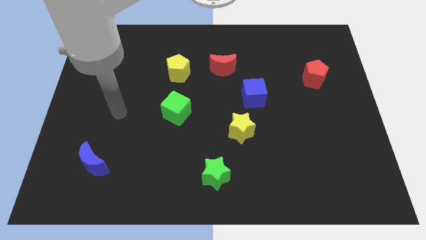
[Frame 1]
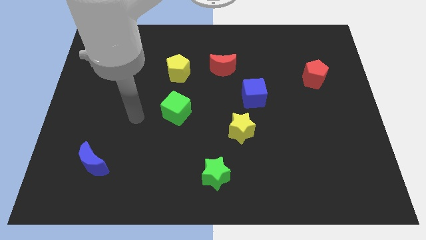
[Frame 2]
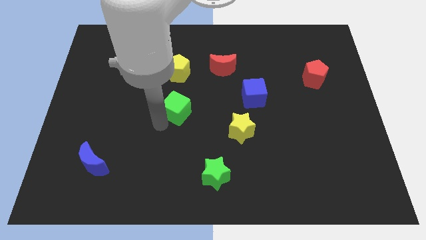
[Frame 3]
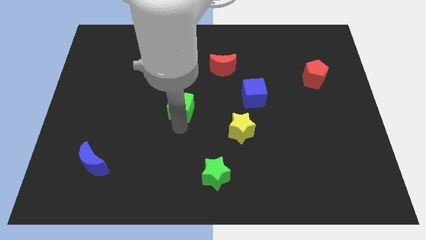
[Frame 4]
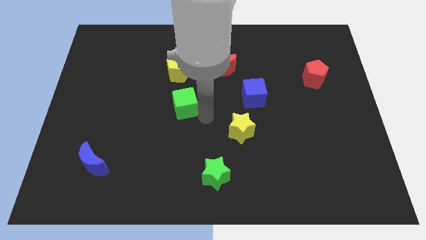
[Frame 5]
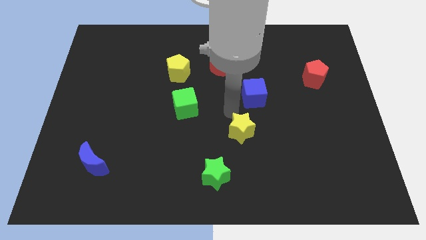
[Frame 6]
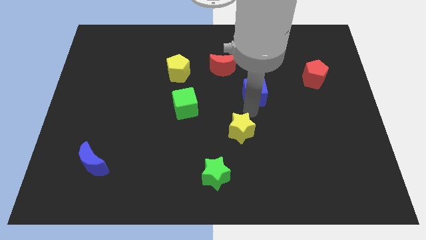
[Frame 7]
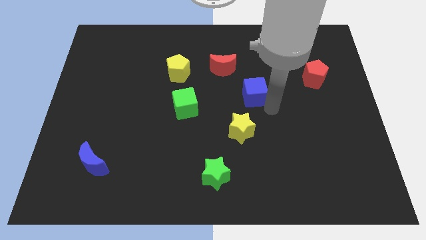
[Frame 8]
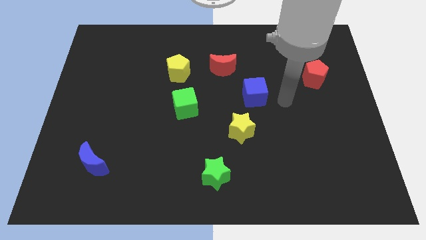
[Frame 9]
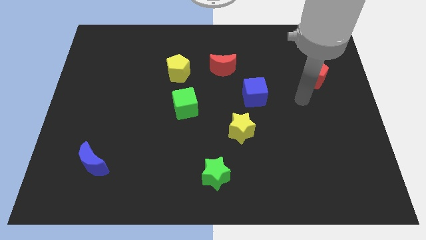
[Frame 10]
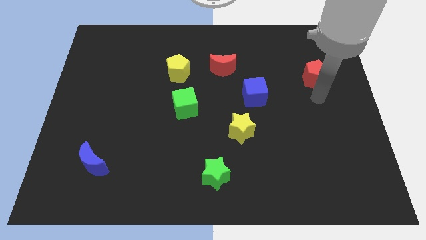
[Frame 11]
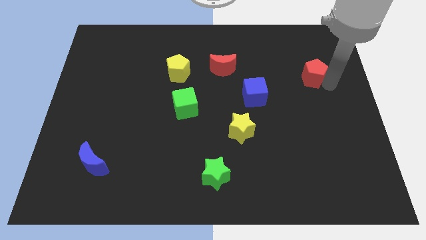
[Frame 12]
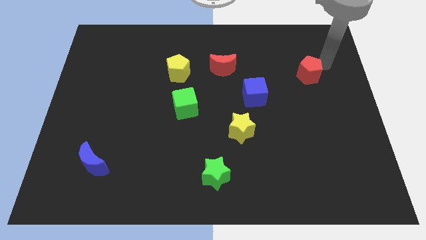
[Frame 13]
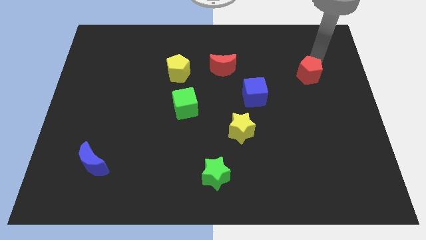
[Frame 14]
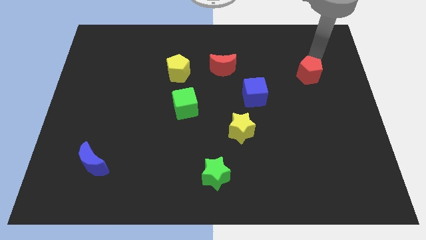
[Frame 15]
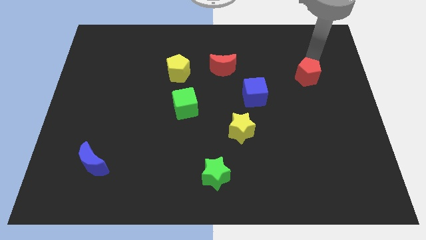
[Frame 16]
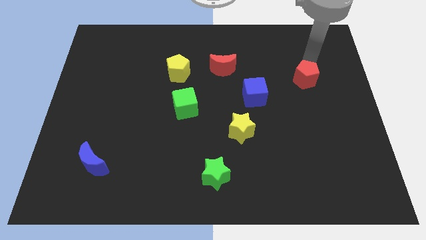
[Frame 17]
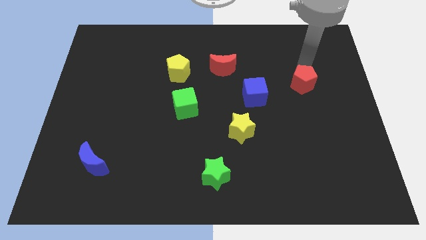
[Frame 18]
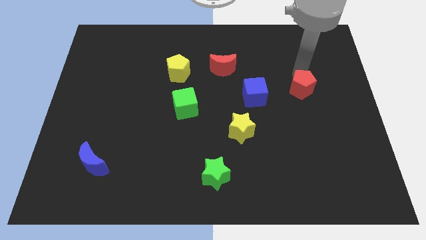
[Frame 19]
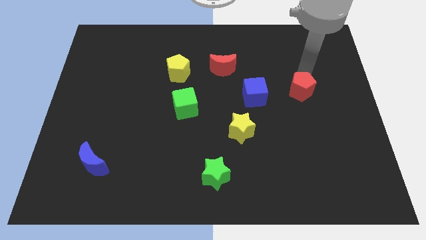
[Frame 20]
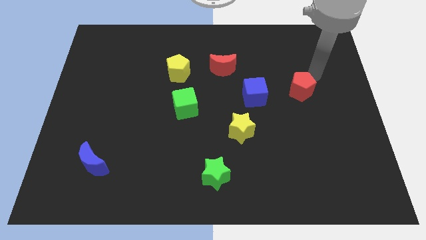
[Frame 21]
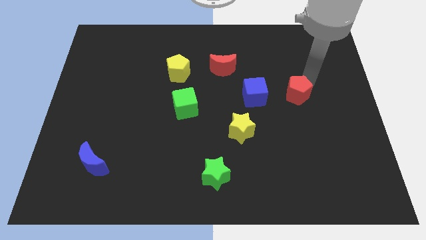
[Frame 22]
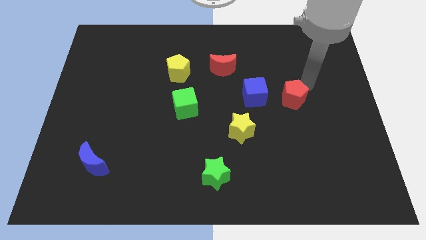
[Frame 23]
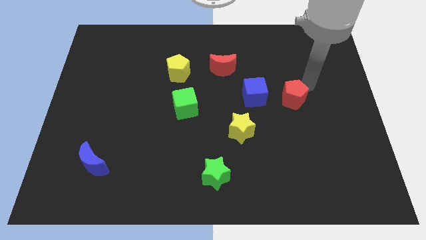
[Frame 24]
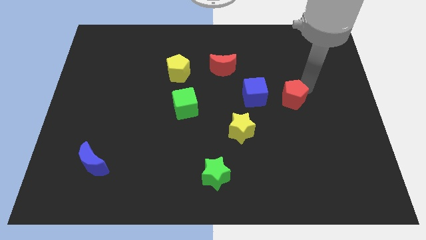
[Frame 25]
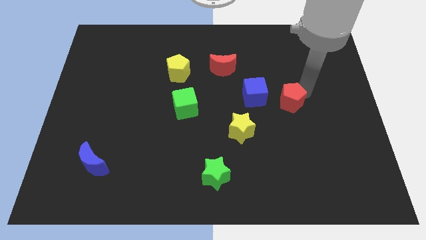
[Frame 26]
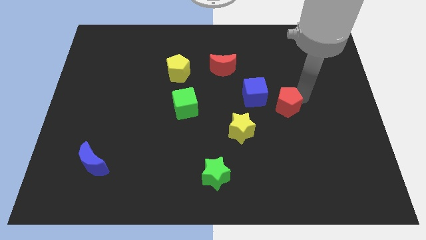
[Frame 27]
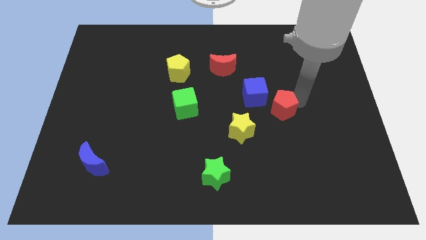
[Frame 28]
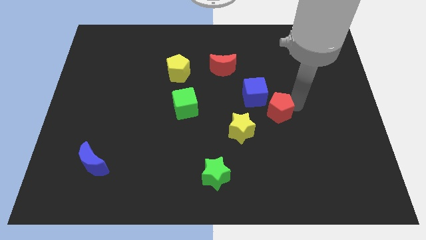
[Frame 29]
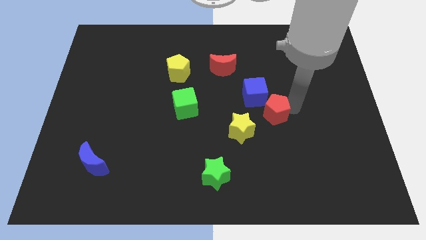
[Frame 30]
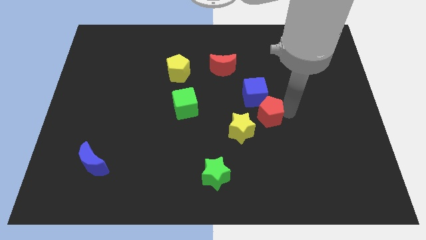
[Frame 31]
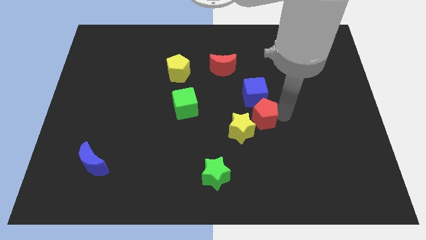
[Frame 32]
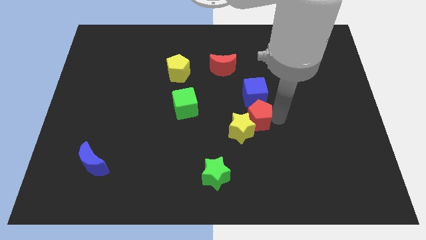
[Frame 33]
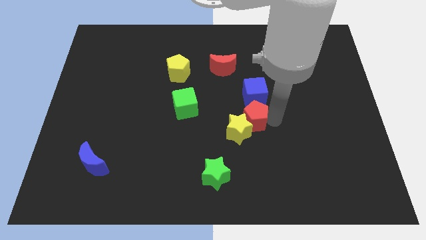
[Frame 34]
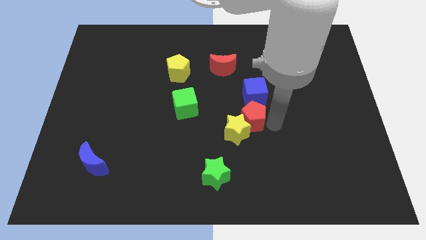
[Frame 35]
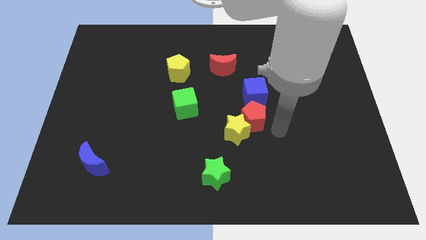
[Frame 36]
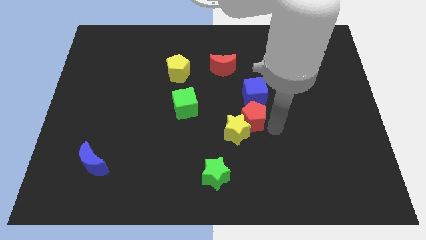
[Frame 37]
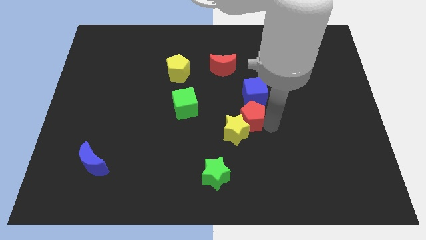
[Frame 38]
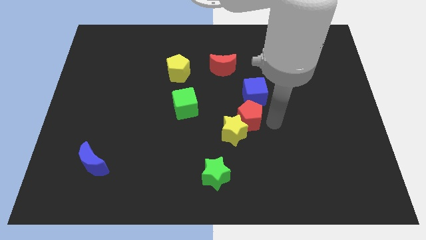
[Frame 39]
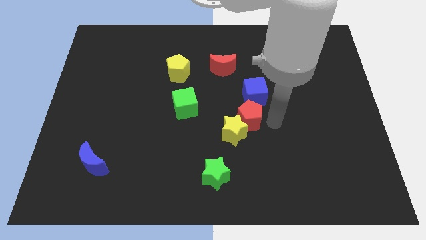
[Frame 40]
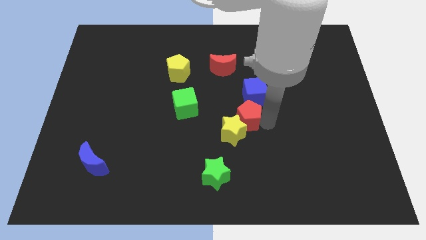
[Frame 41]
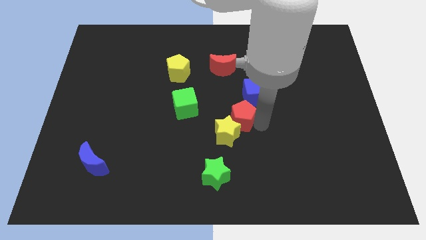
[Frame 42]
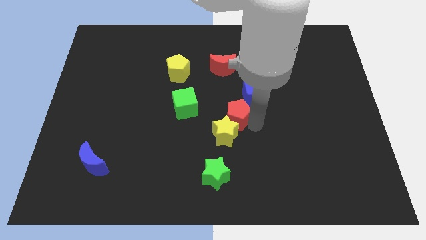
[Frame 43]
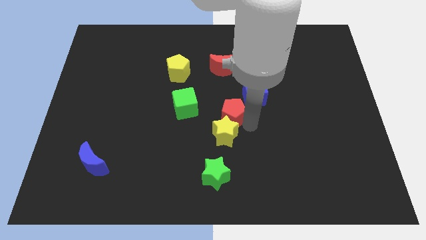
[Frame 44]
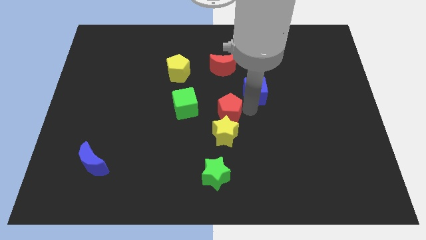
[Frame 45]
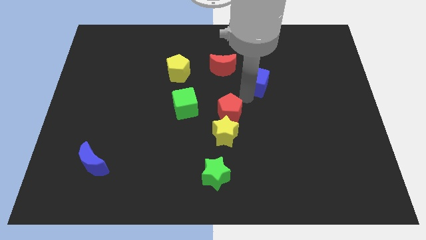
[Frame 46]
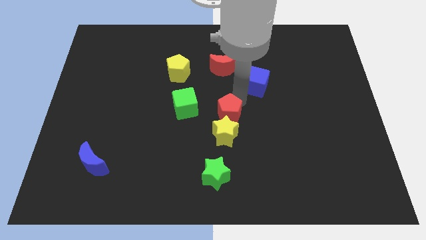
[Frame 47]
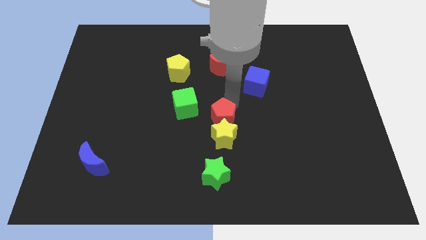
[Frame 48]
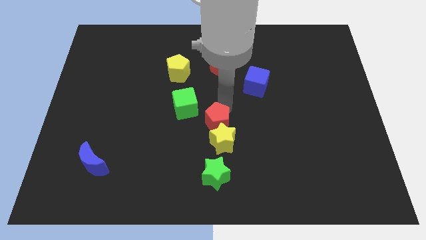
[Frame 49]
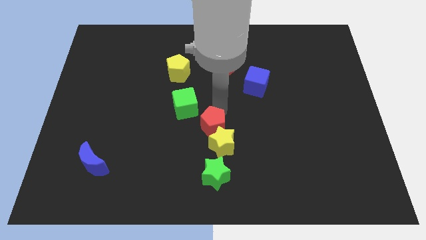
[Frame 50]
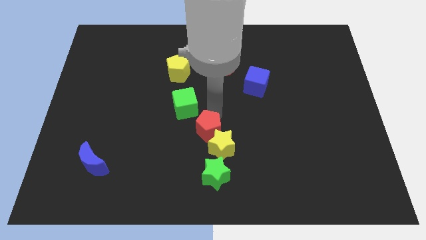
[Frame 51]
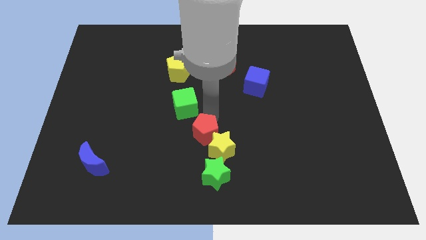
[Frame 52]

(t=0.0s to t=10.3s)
slide the red pentagon to the bottom of the green cube

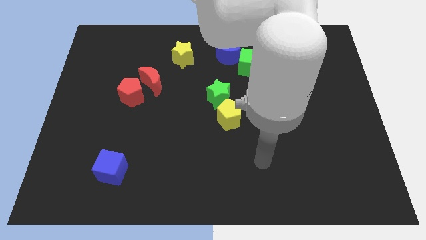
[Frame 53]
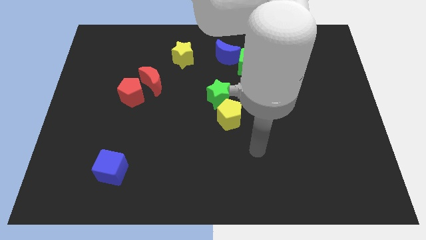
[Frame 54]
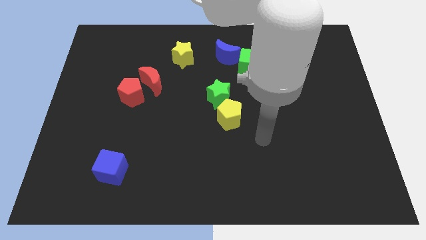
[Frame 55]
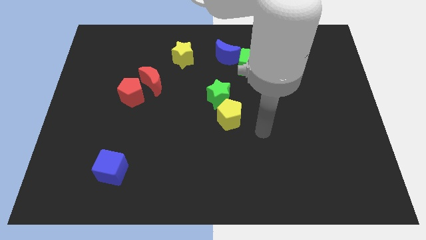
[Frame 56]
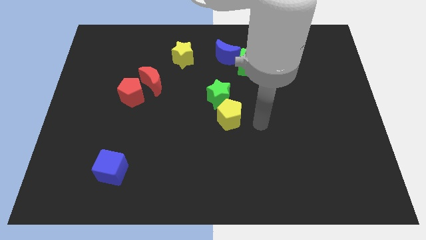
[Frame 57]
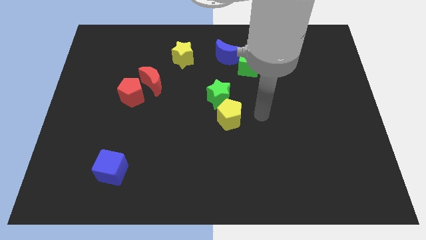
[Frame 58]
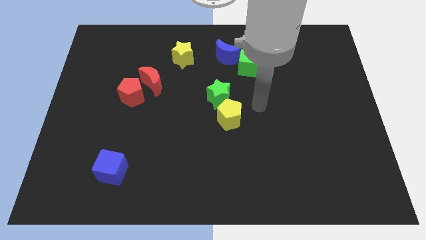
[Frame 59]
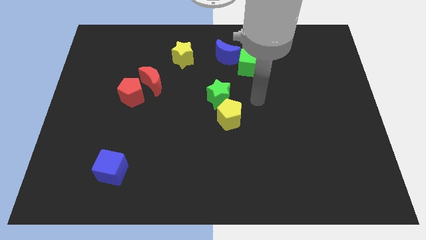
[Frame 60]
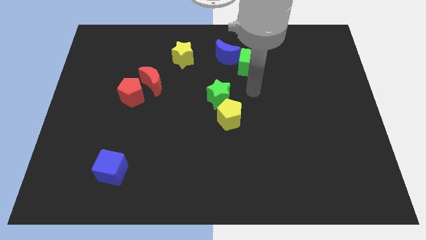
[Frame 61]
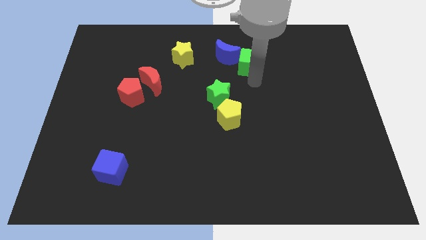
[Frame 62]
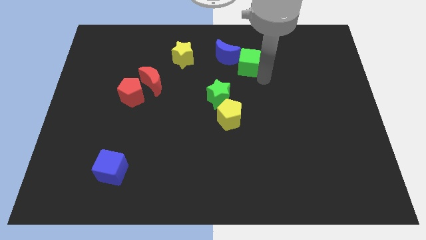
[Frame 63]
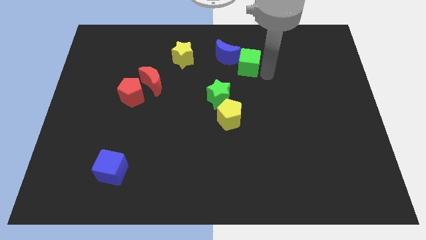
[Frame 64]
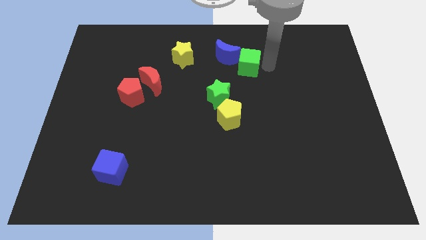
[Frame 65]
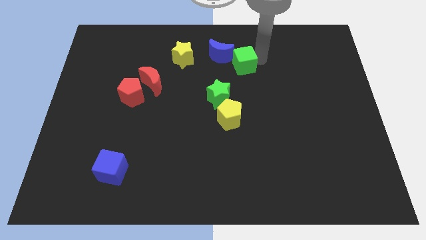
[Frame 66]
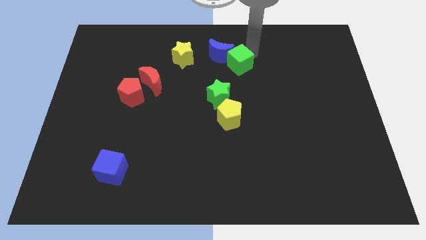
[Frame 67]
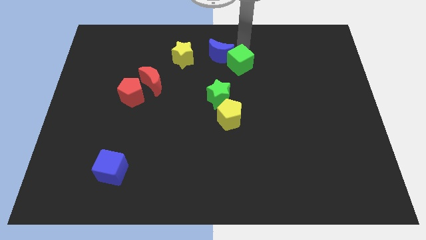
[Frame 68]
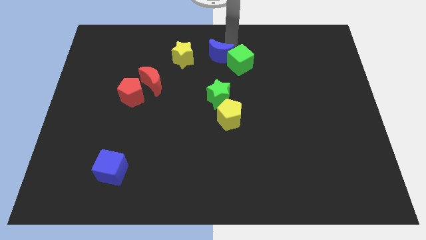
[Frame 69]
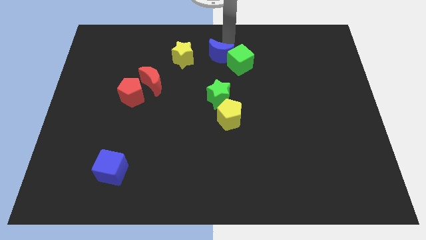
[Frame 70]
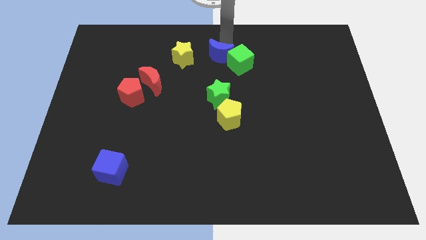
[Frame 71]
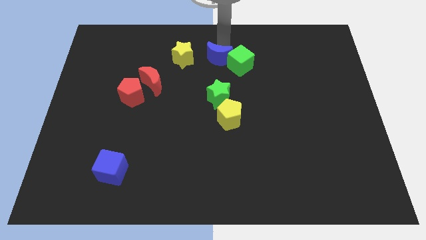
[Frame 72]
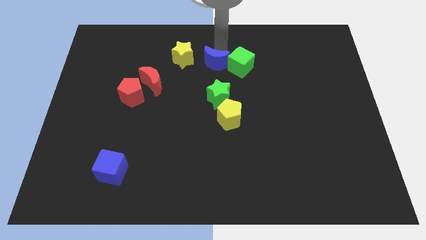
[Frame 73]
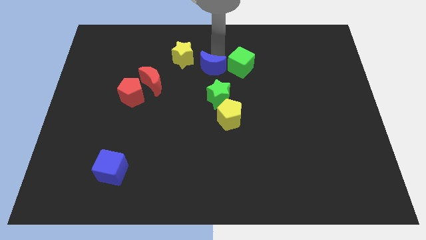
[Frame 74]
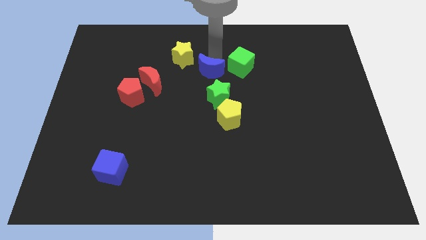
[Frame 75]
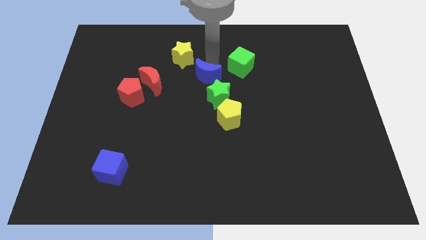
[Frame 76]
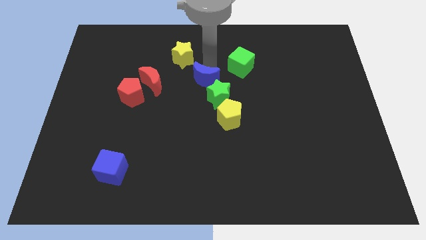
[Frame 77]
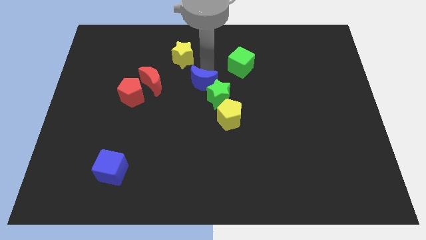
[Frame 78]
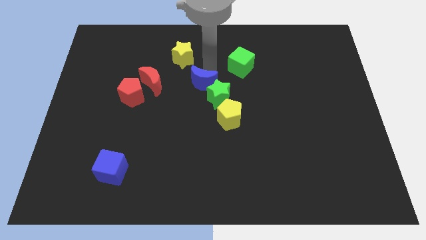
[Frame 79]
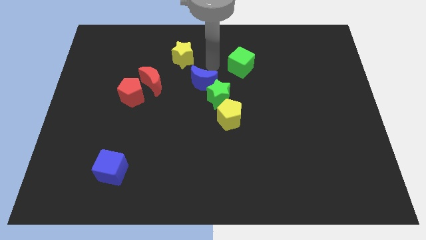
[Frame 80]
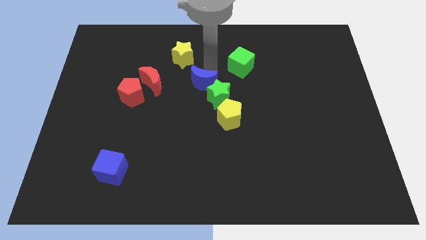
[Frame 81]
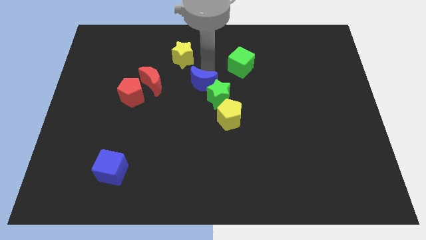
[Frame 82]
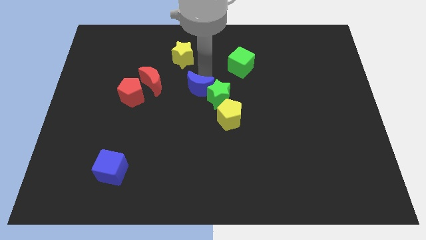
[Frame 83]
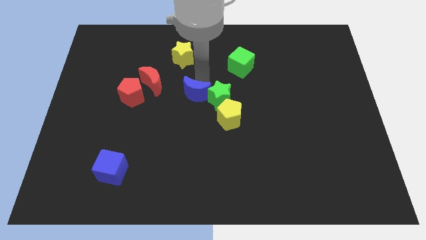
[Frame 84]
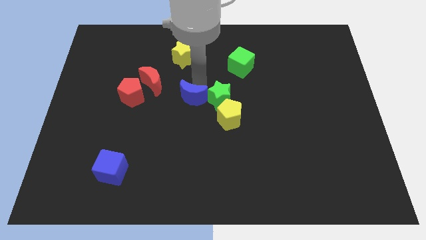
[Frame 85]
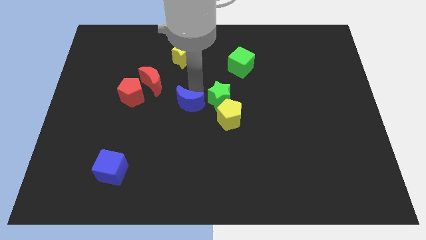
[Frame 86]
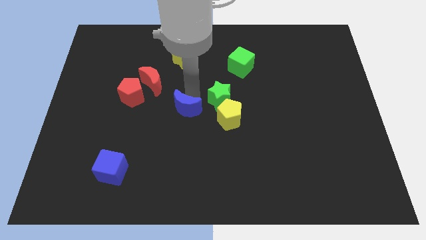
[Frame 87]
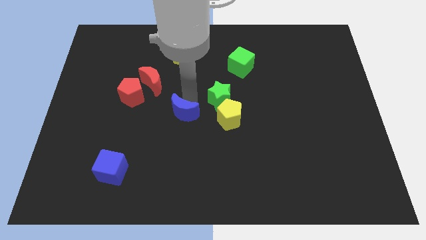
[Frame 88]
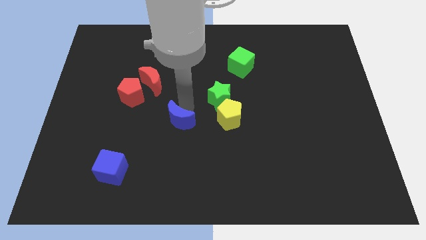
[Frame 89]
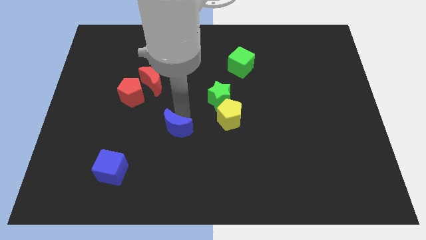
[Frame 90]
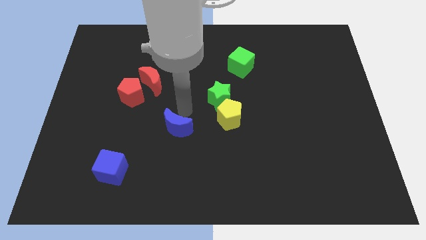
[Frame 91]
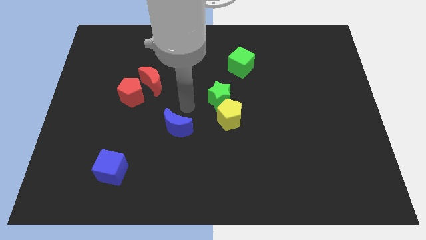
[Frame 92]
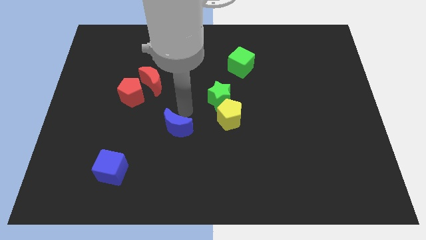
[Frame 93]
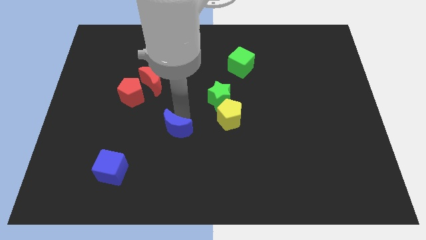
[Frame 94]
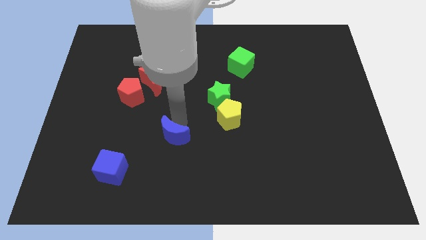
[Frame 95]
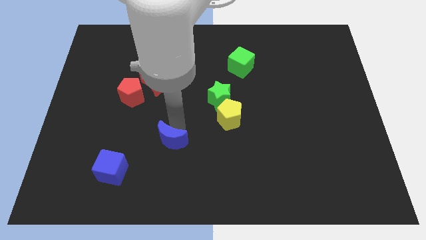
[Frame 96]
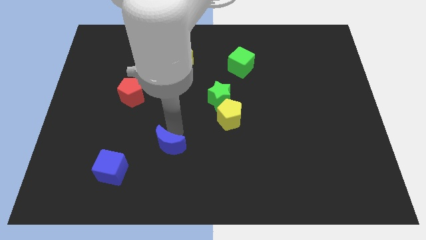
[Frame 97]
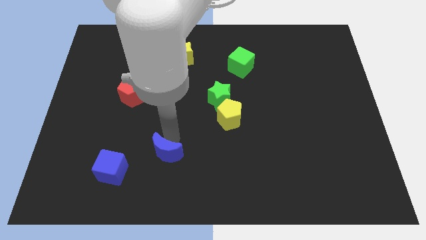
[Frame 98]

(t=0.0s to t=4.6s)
slide the blue moon to the right of the blue cube
